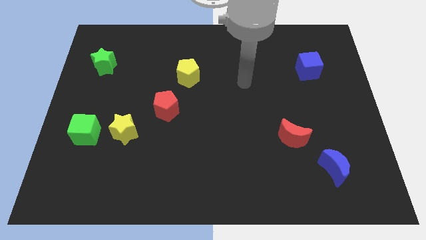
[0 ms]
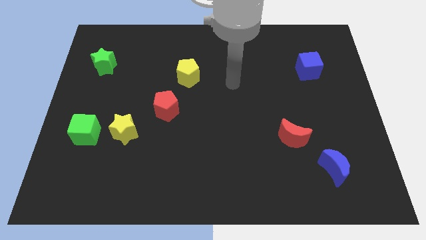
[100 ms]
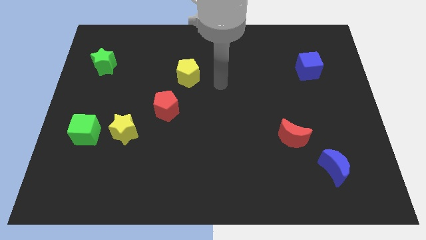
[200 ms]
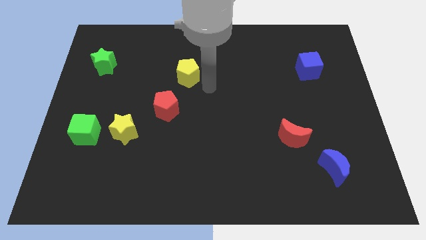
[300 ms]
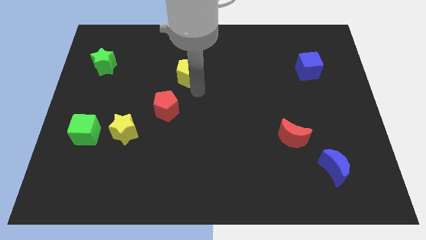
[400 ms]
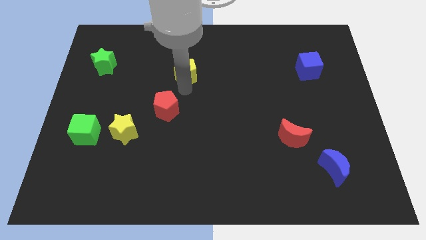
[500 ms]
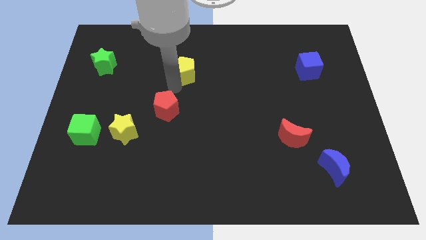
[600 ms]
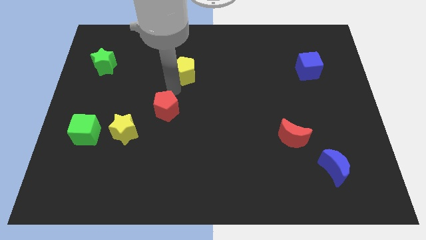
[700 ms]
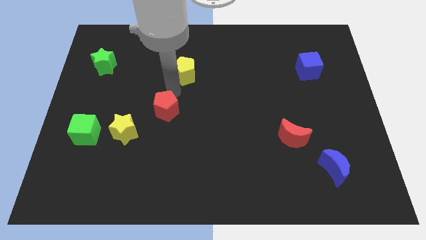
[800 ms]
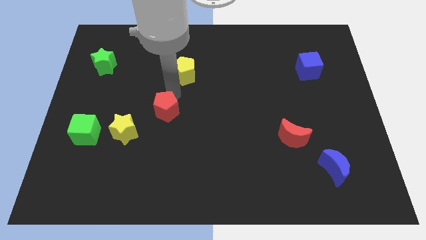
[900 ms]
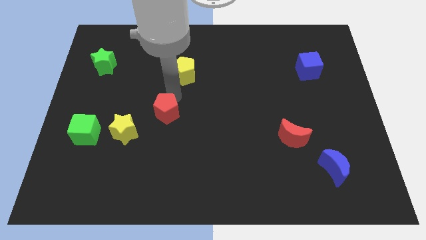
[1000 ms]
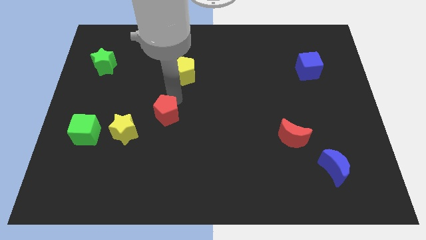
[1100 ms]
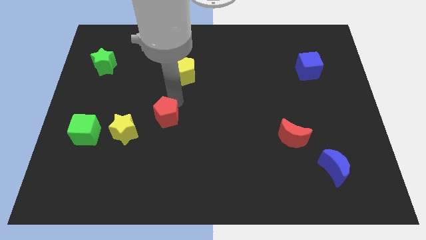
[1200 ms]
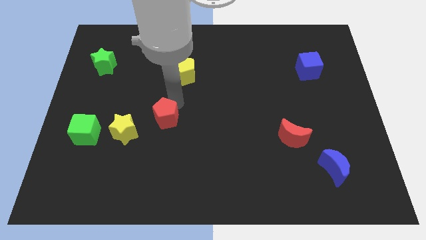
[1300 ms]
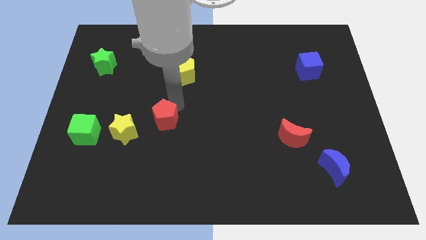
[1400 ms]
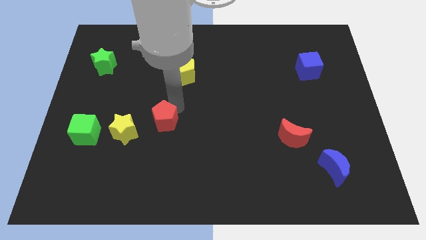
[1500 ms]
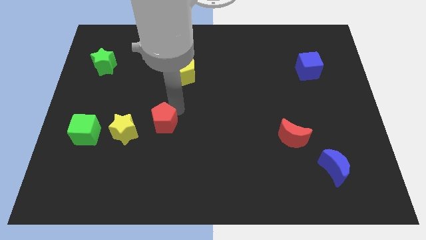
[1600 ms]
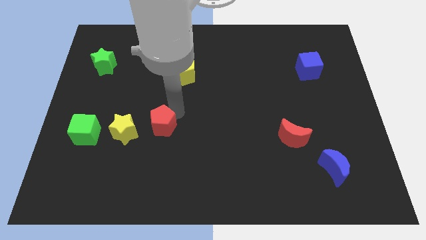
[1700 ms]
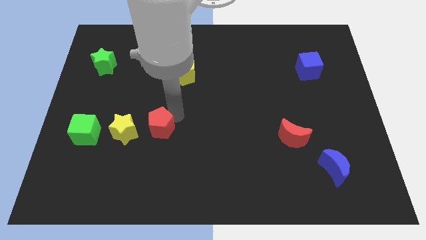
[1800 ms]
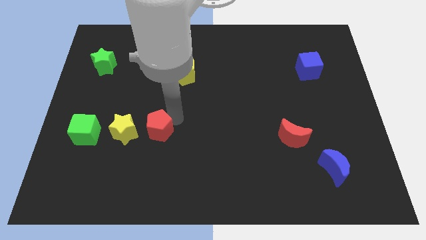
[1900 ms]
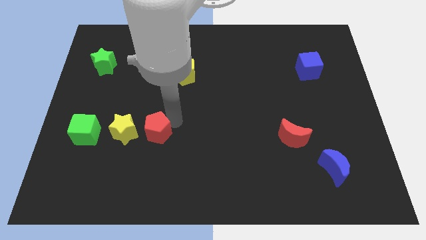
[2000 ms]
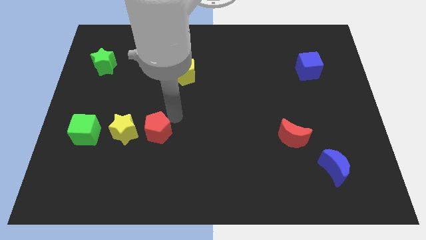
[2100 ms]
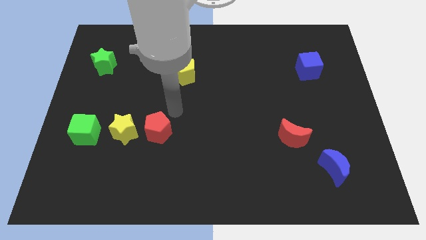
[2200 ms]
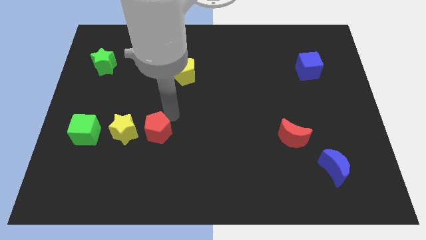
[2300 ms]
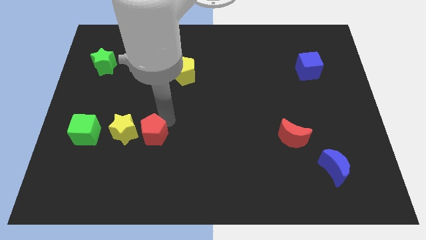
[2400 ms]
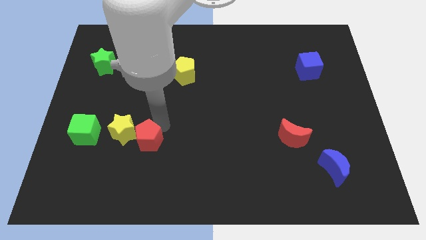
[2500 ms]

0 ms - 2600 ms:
slide the red pentagon diagonally downwards and left slightly

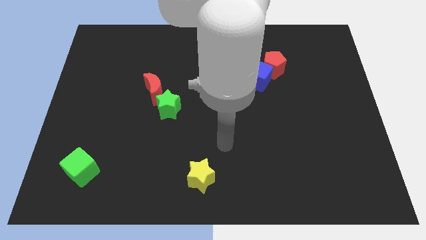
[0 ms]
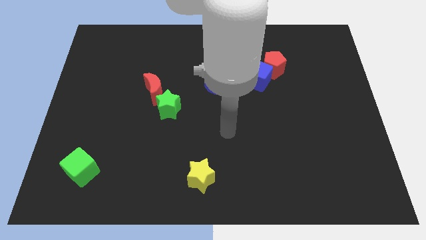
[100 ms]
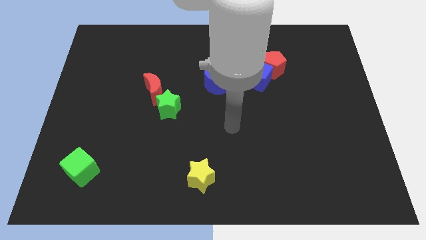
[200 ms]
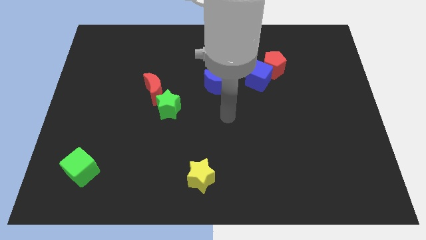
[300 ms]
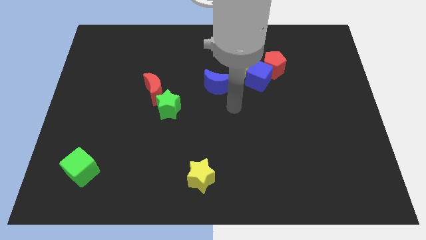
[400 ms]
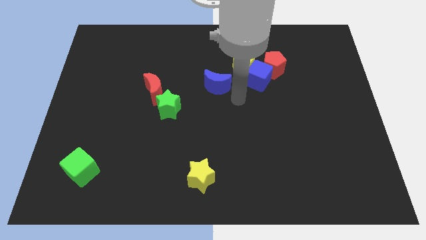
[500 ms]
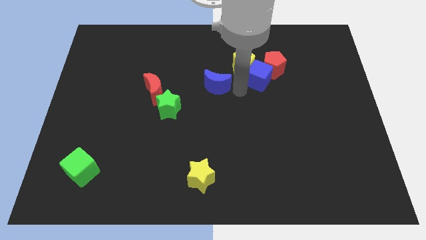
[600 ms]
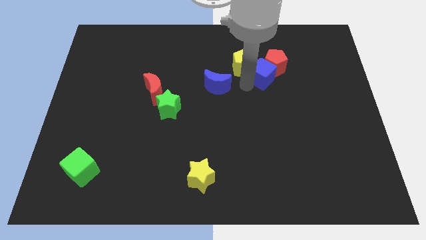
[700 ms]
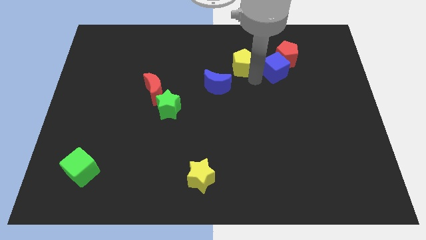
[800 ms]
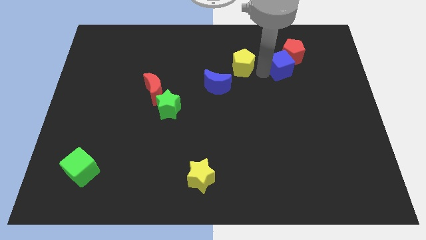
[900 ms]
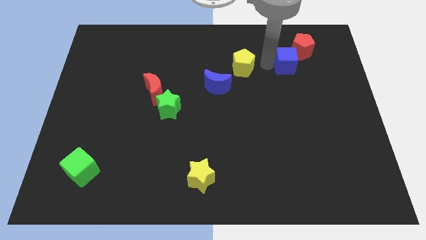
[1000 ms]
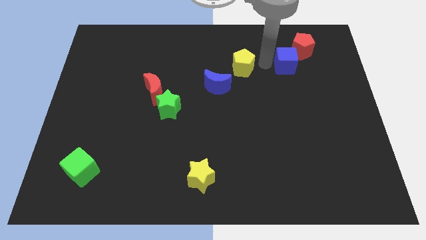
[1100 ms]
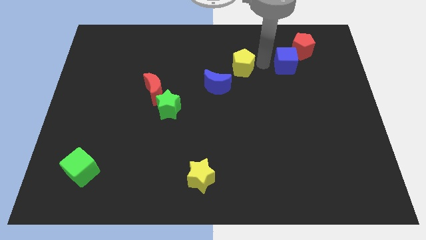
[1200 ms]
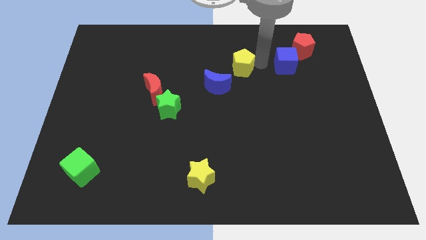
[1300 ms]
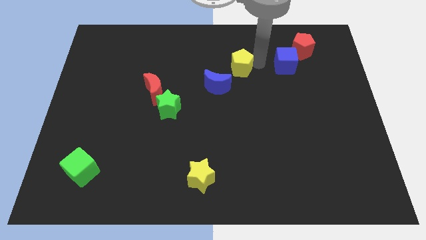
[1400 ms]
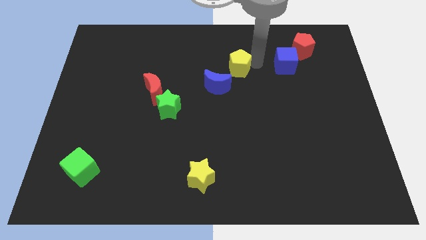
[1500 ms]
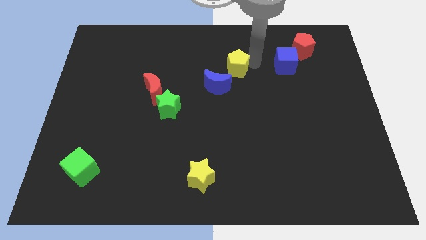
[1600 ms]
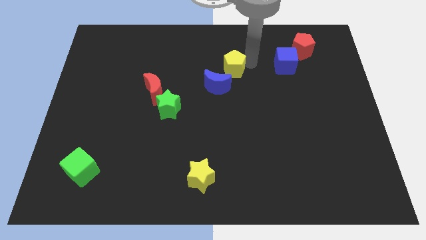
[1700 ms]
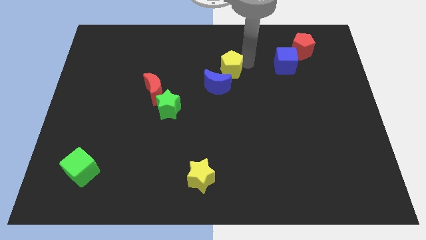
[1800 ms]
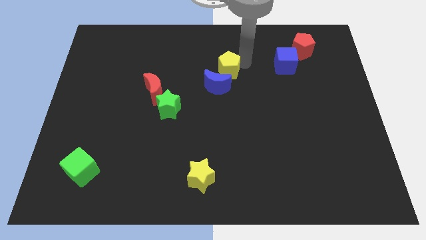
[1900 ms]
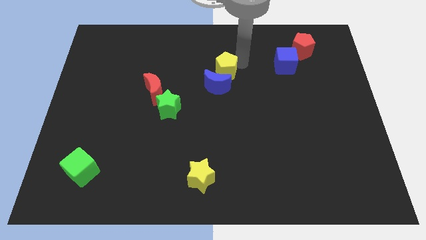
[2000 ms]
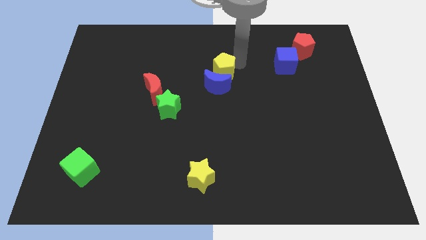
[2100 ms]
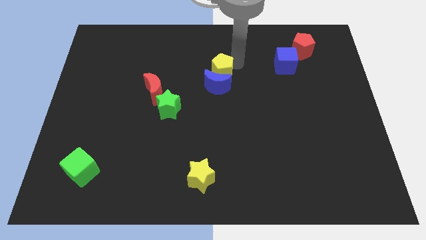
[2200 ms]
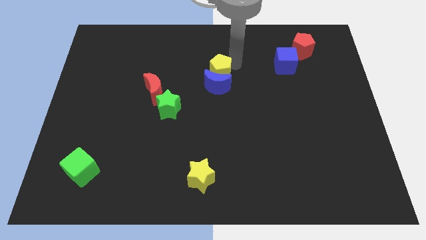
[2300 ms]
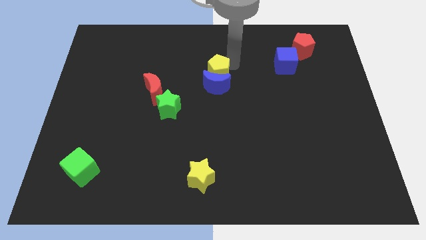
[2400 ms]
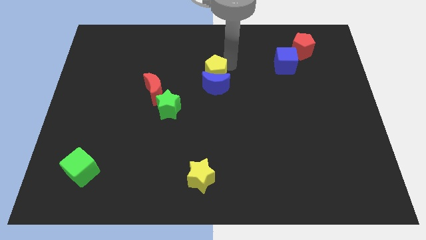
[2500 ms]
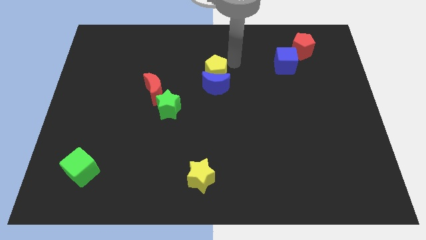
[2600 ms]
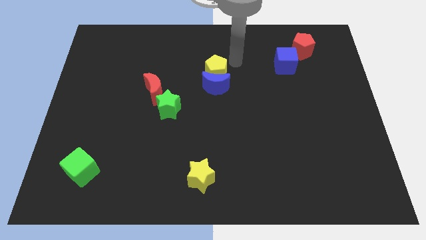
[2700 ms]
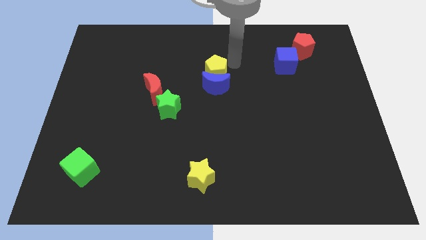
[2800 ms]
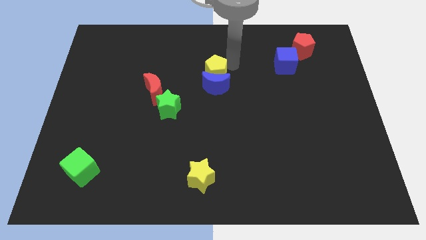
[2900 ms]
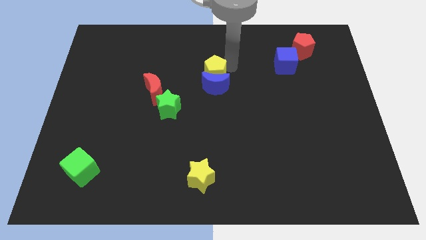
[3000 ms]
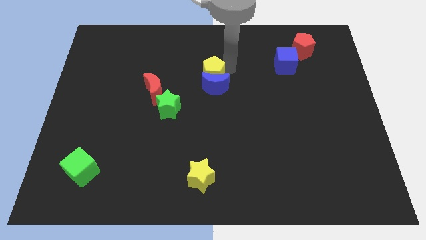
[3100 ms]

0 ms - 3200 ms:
slightly push the yellow pentagon down and to the left diagonally

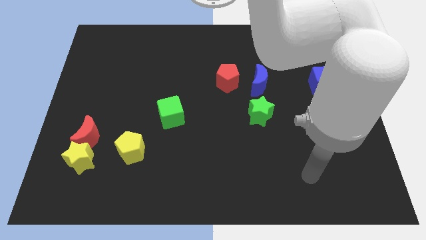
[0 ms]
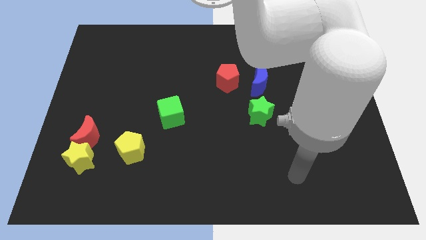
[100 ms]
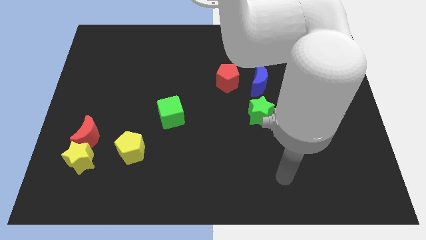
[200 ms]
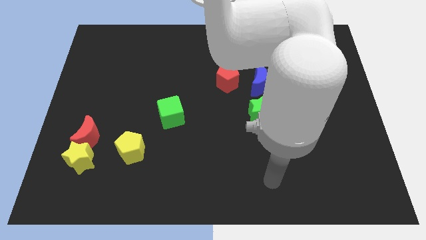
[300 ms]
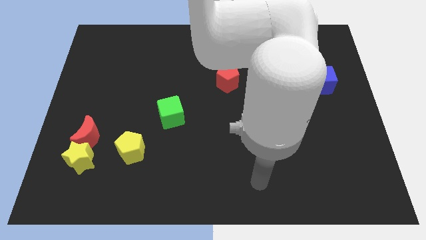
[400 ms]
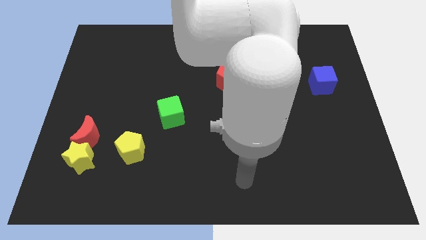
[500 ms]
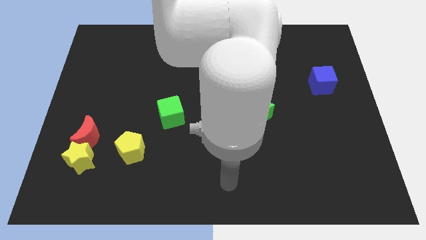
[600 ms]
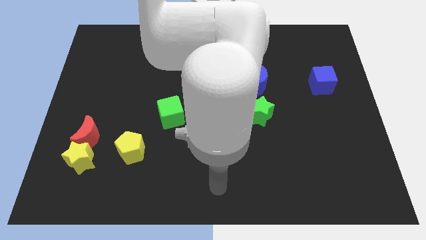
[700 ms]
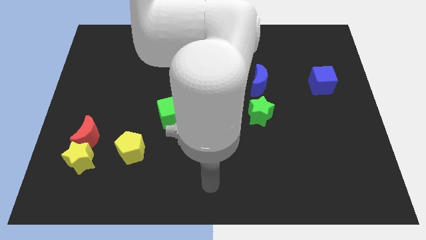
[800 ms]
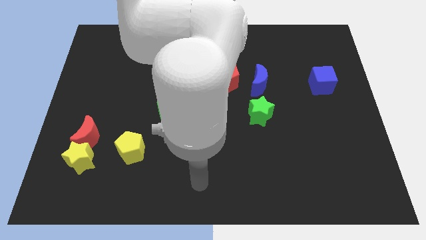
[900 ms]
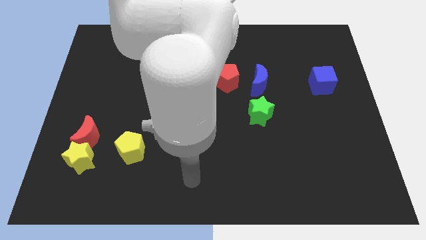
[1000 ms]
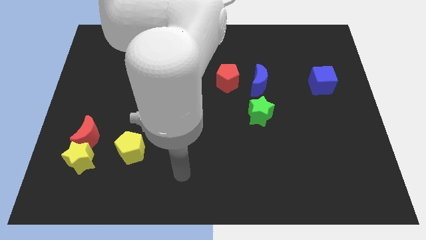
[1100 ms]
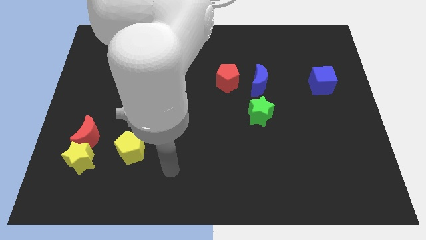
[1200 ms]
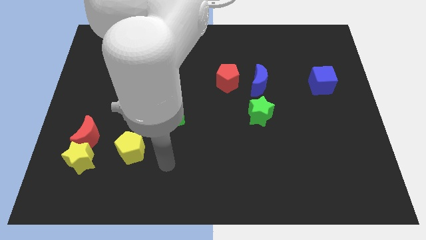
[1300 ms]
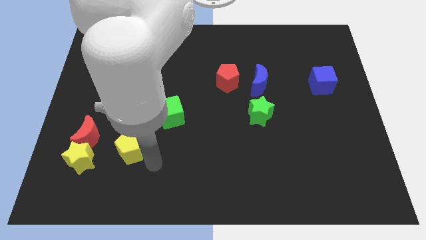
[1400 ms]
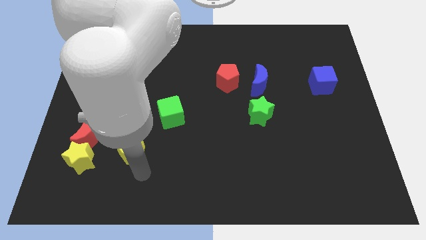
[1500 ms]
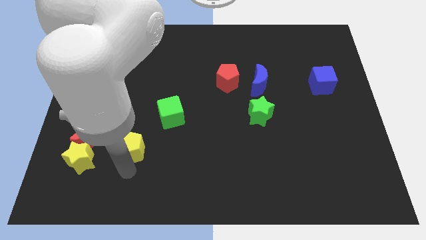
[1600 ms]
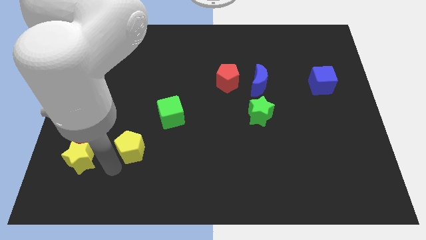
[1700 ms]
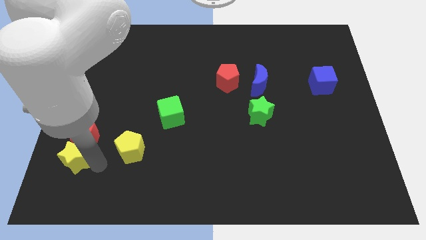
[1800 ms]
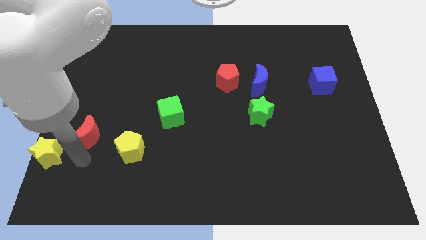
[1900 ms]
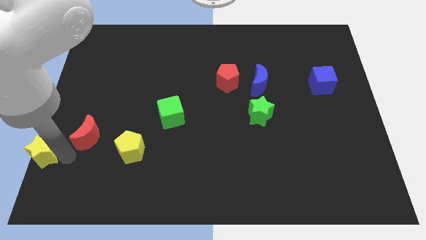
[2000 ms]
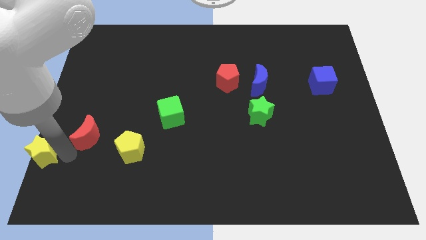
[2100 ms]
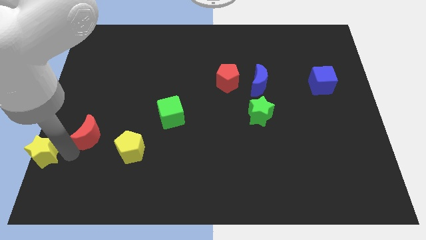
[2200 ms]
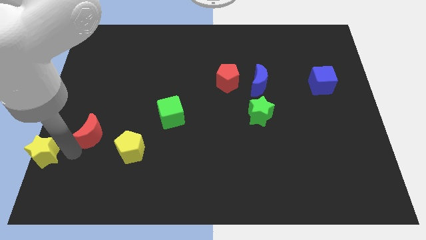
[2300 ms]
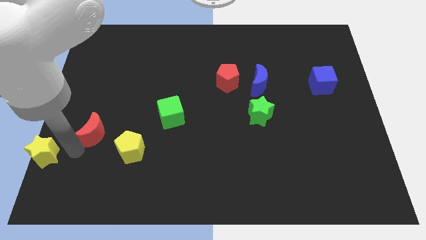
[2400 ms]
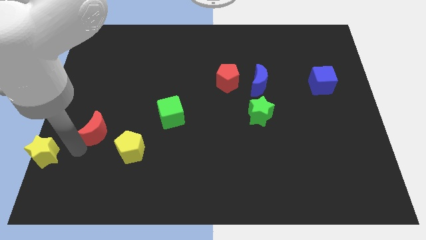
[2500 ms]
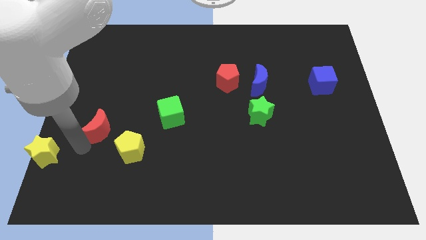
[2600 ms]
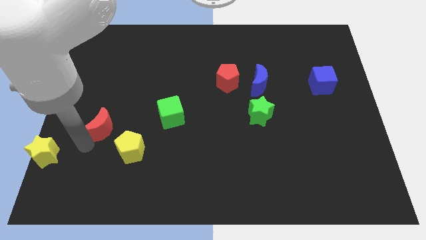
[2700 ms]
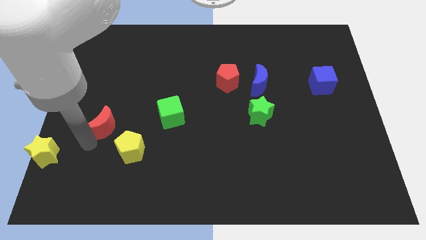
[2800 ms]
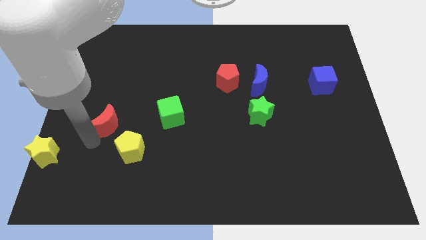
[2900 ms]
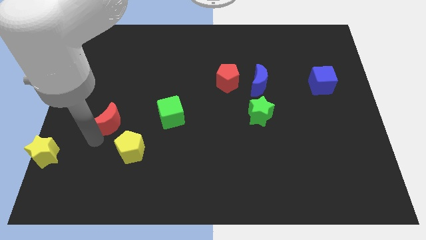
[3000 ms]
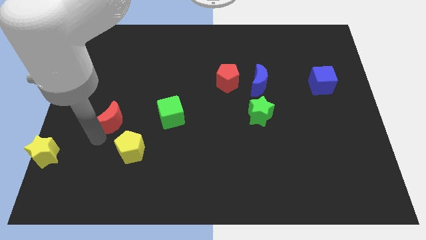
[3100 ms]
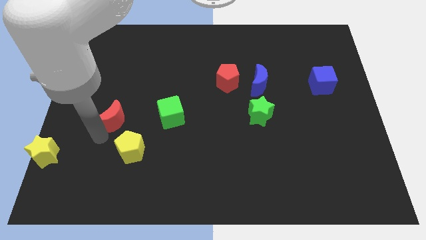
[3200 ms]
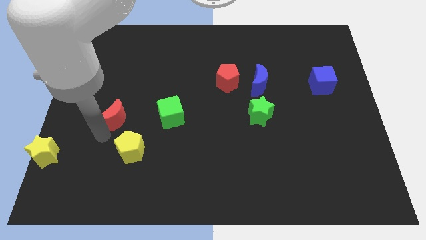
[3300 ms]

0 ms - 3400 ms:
slightly slide the red moon up and right diagonally
